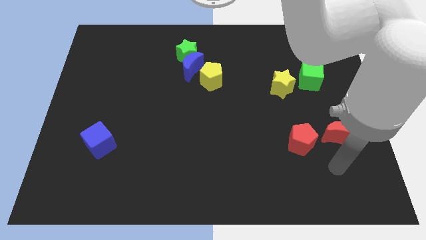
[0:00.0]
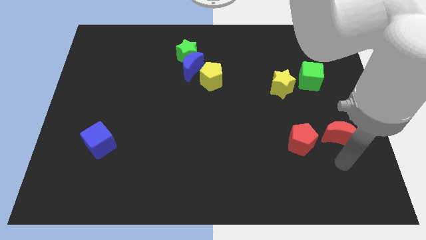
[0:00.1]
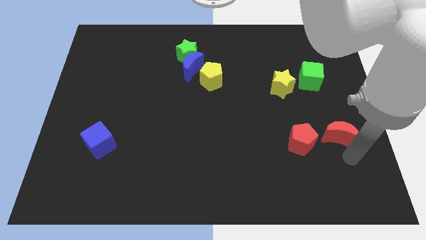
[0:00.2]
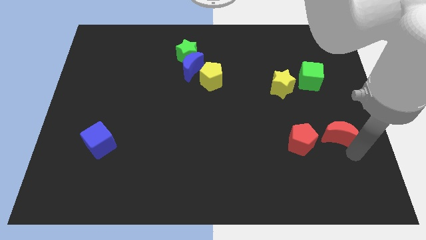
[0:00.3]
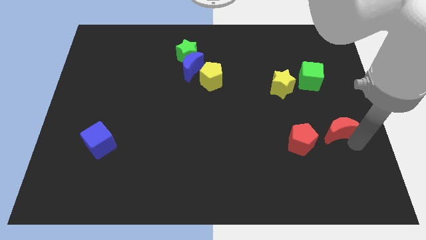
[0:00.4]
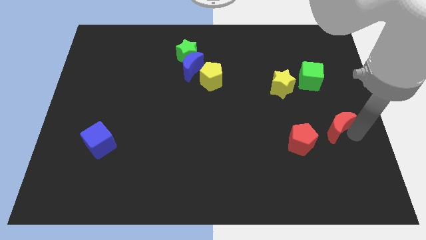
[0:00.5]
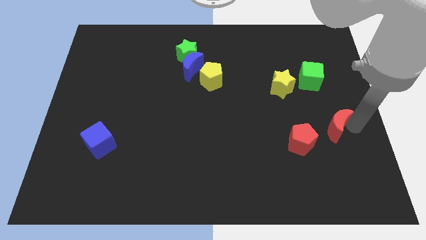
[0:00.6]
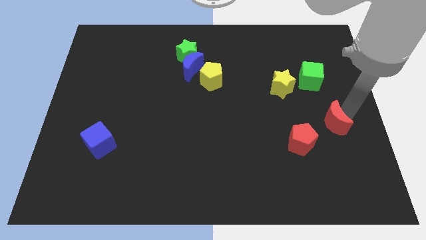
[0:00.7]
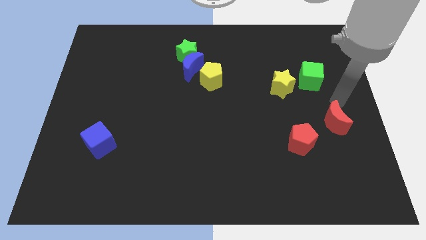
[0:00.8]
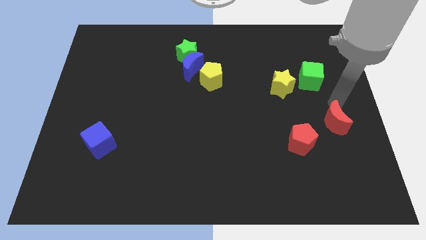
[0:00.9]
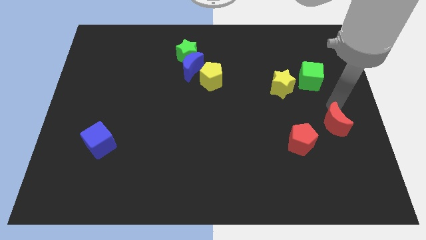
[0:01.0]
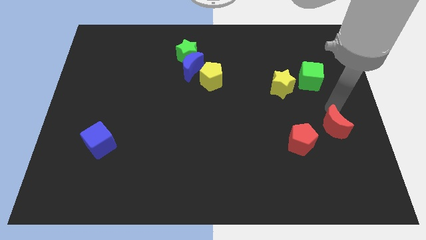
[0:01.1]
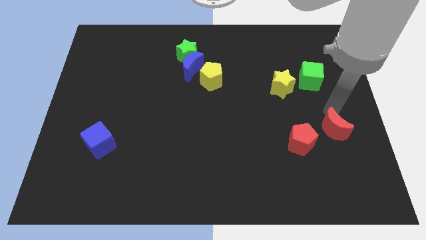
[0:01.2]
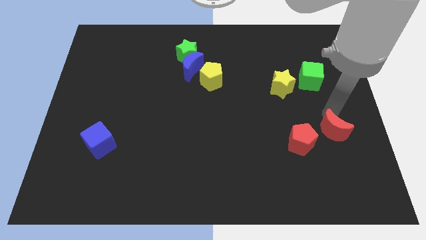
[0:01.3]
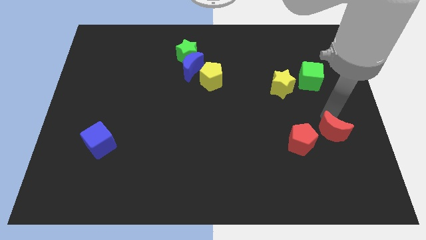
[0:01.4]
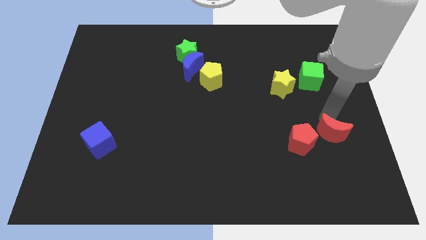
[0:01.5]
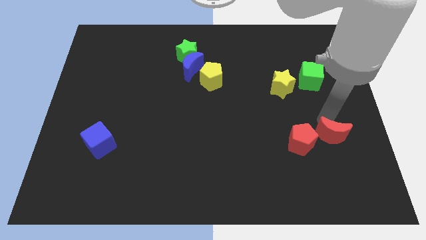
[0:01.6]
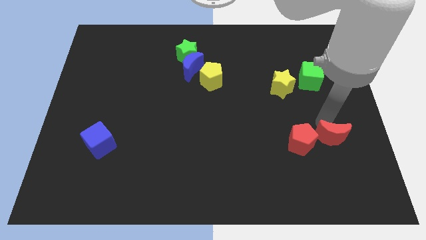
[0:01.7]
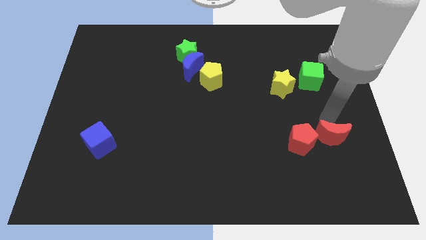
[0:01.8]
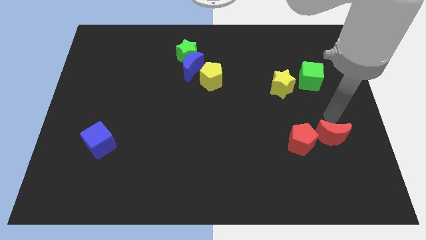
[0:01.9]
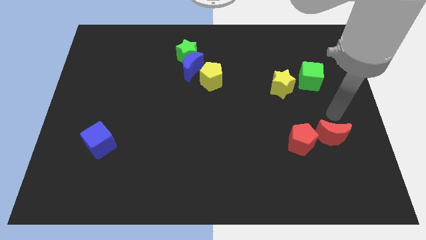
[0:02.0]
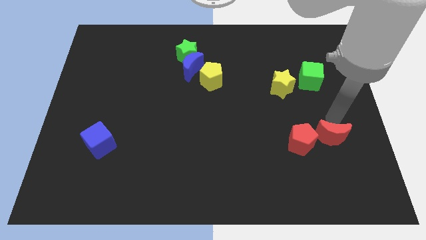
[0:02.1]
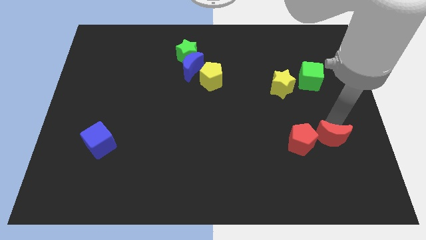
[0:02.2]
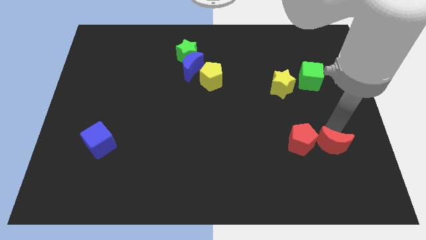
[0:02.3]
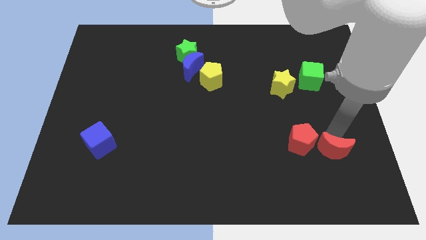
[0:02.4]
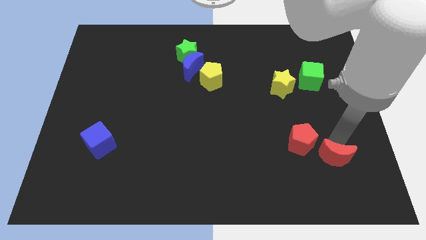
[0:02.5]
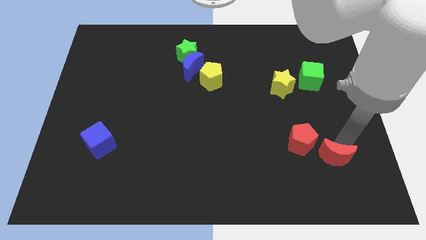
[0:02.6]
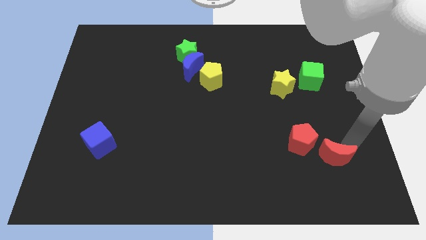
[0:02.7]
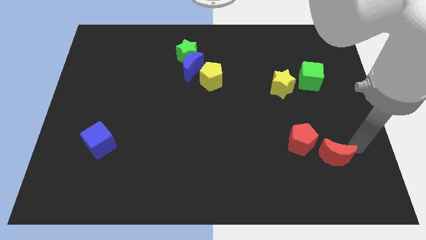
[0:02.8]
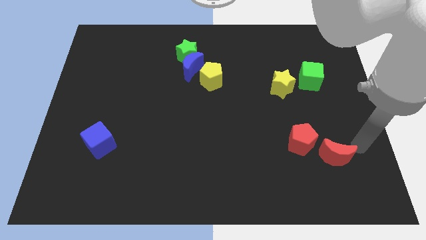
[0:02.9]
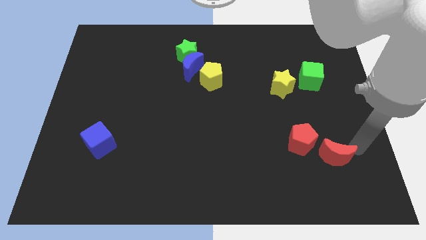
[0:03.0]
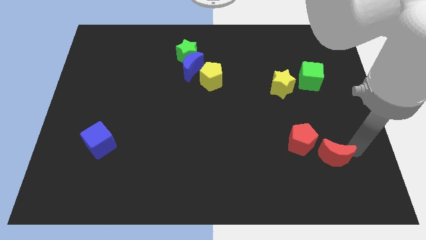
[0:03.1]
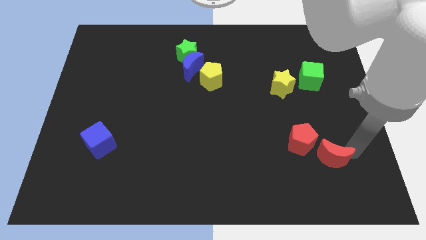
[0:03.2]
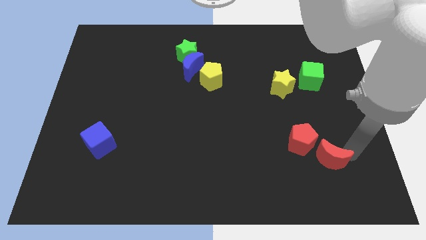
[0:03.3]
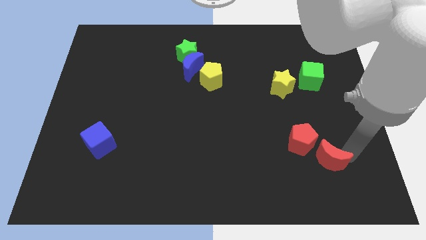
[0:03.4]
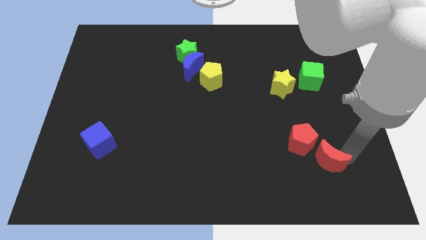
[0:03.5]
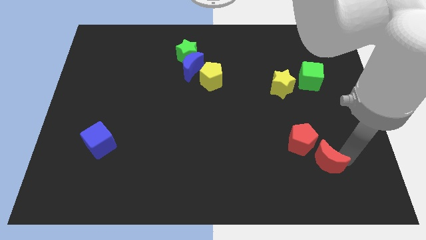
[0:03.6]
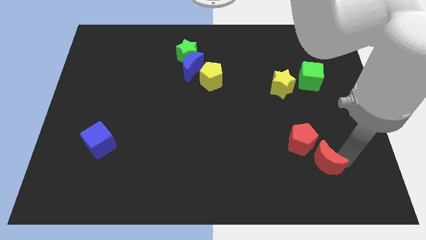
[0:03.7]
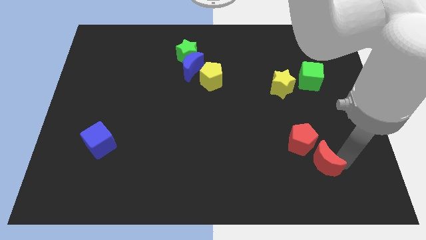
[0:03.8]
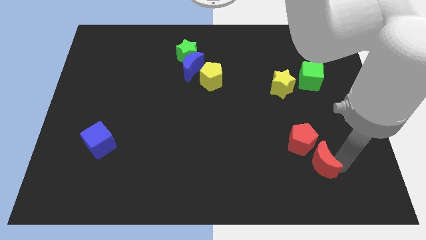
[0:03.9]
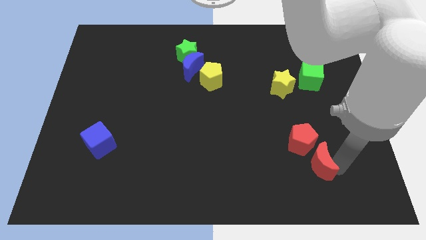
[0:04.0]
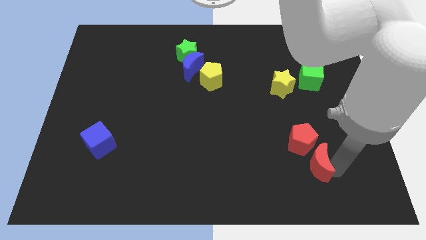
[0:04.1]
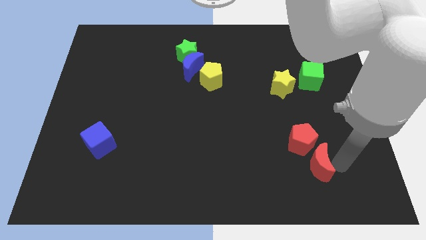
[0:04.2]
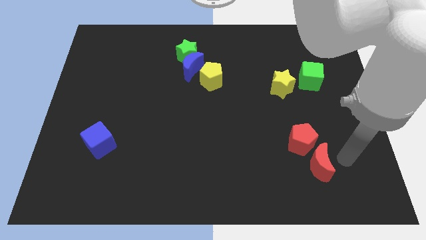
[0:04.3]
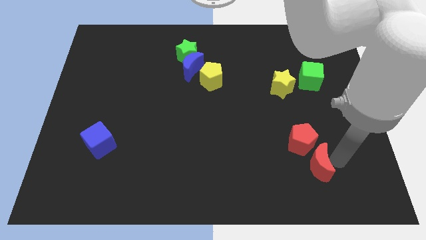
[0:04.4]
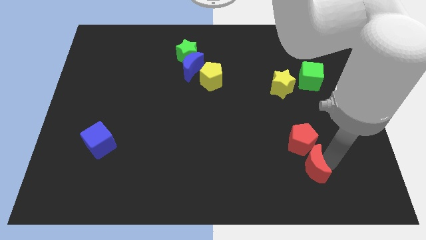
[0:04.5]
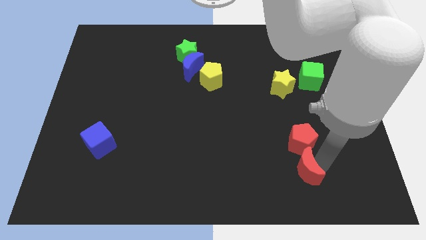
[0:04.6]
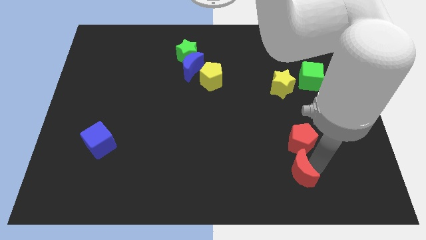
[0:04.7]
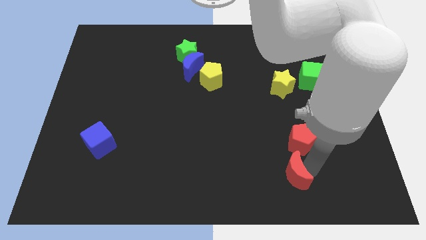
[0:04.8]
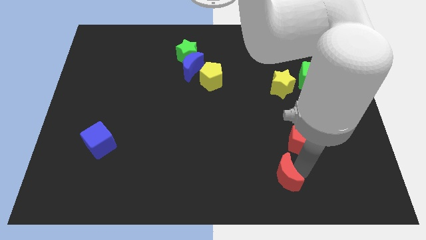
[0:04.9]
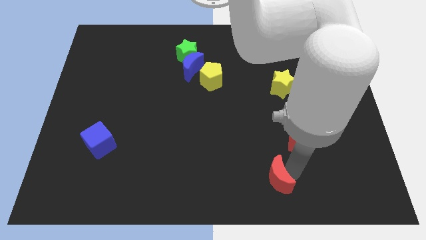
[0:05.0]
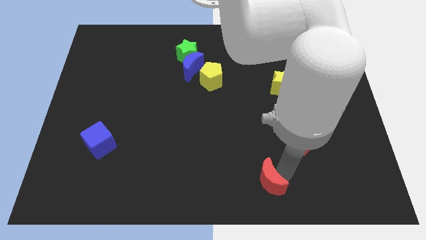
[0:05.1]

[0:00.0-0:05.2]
put the red moon to the bottom side

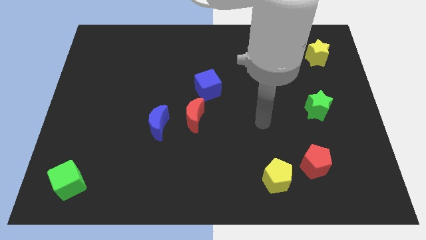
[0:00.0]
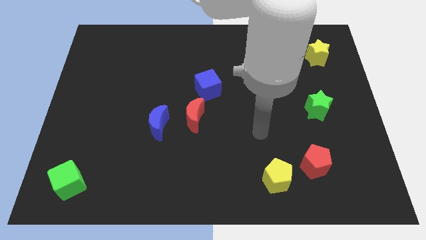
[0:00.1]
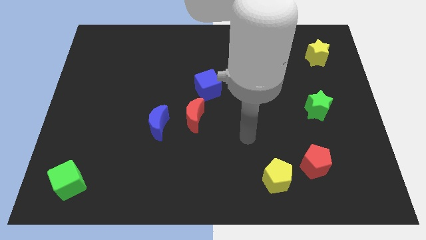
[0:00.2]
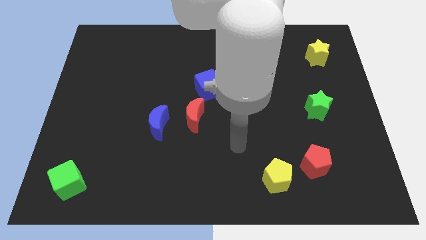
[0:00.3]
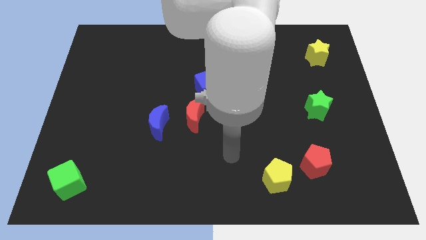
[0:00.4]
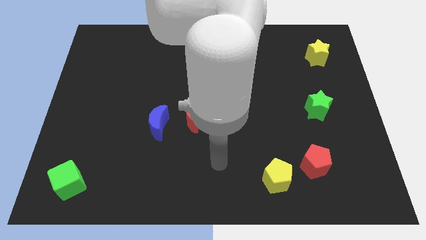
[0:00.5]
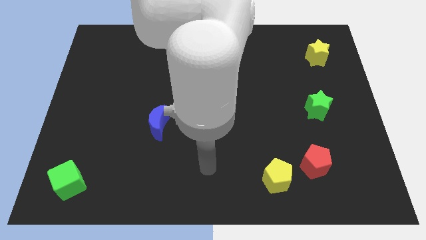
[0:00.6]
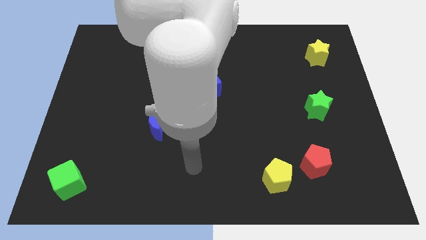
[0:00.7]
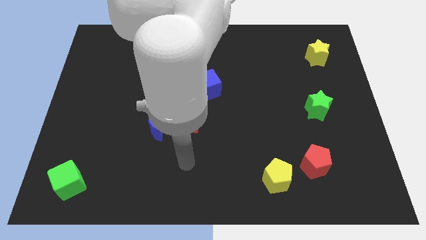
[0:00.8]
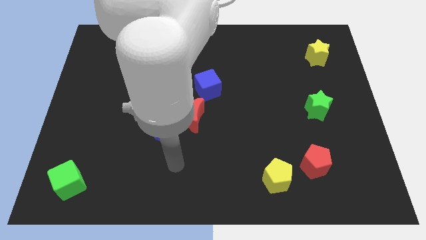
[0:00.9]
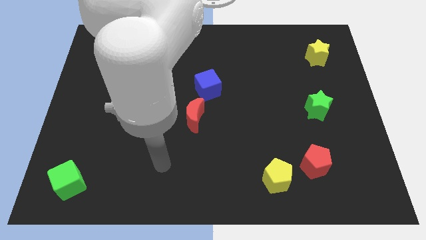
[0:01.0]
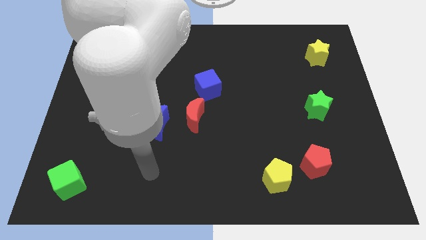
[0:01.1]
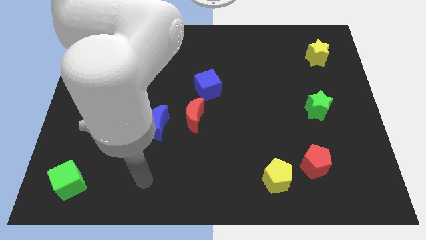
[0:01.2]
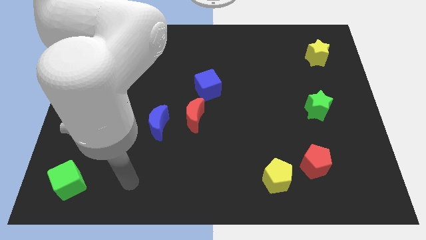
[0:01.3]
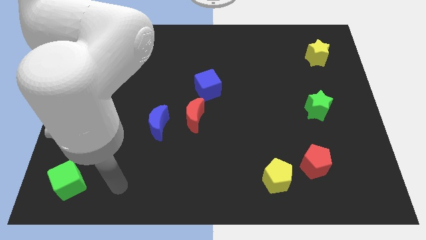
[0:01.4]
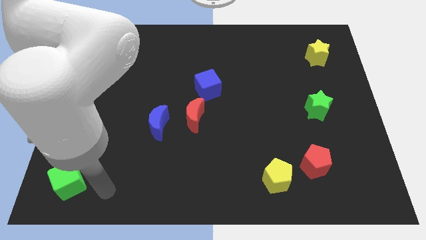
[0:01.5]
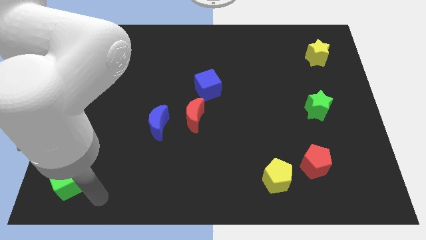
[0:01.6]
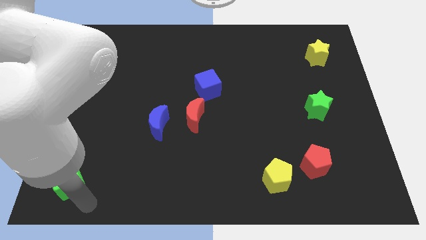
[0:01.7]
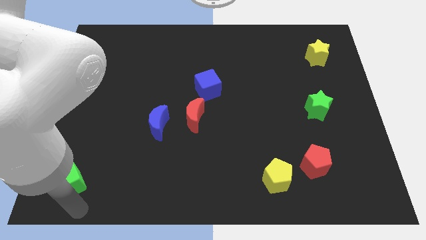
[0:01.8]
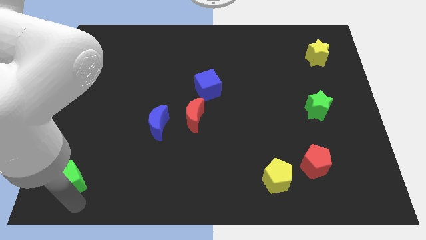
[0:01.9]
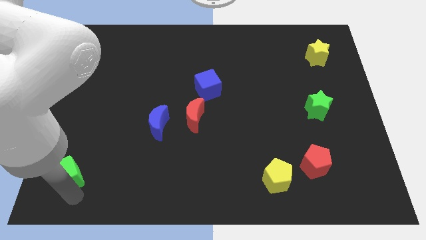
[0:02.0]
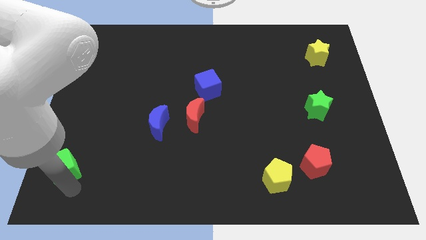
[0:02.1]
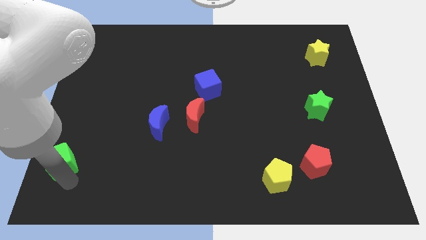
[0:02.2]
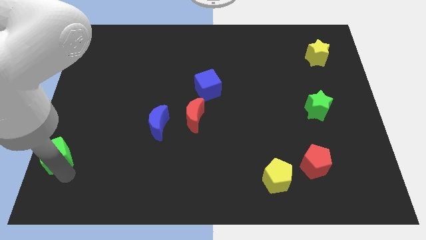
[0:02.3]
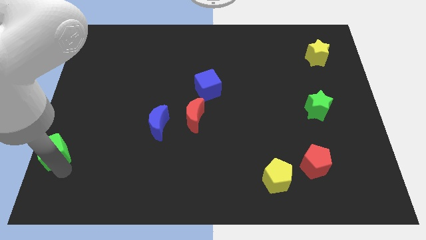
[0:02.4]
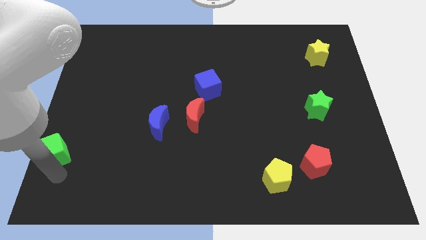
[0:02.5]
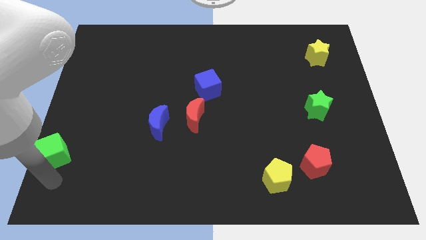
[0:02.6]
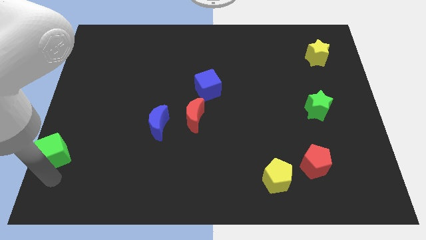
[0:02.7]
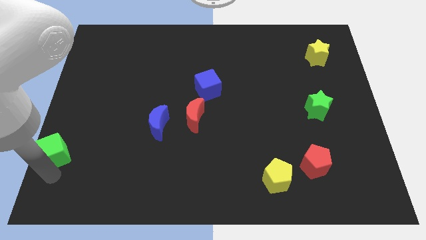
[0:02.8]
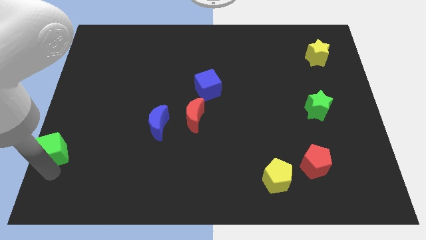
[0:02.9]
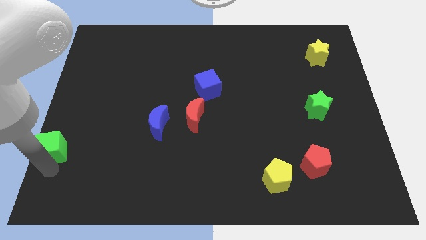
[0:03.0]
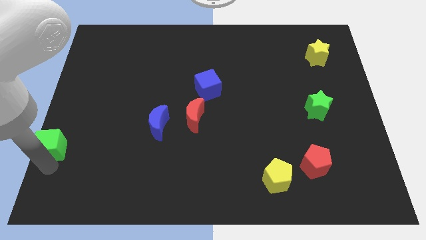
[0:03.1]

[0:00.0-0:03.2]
push the green cube to the left side
